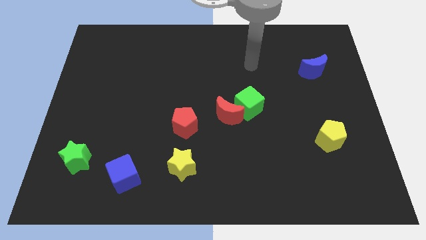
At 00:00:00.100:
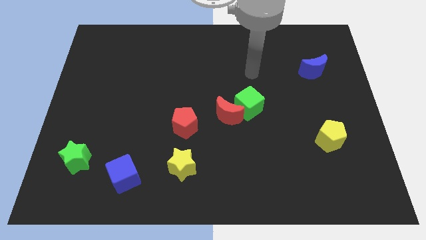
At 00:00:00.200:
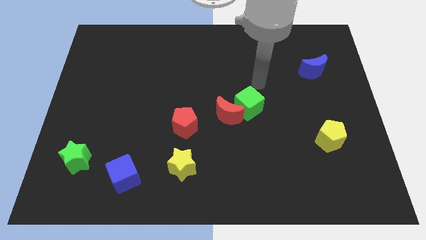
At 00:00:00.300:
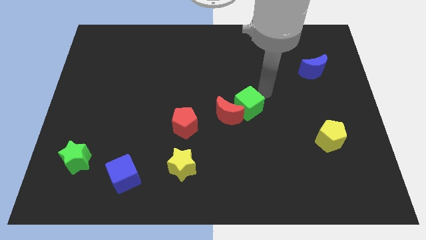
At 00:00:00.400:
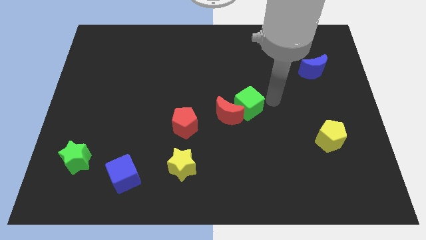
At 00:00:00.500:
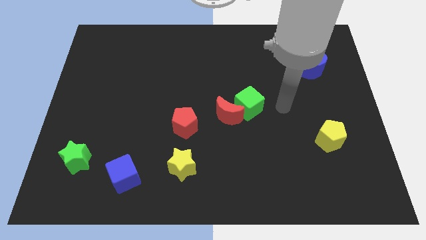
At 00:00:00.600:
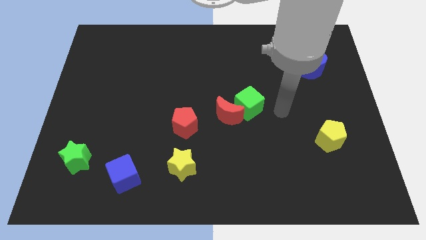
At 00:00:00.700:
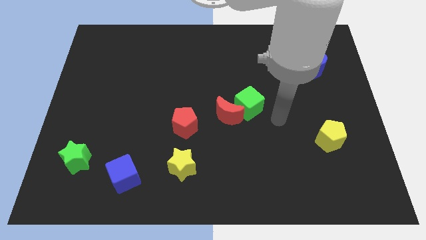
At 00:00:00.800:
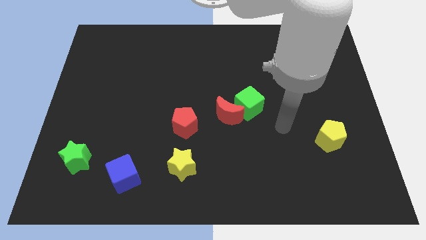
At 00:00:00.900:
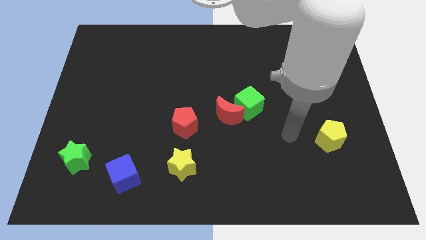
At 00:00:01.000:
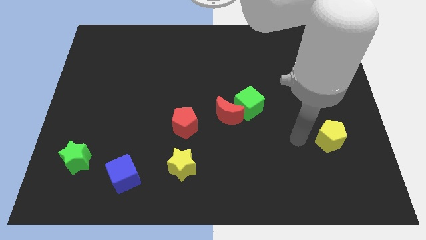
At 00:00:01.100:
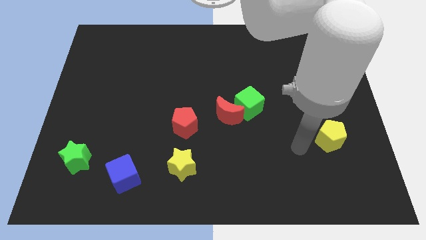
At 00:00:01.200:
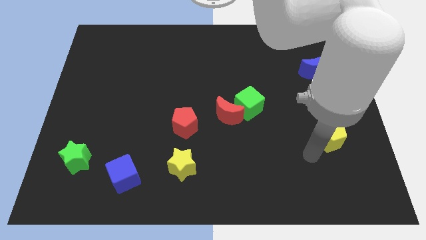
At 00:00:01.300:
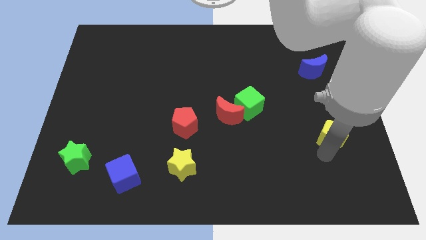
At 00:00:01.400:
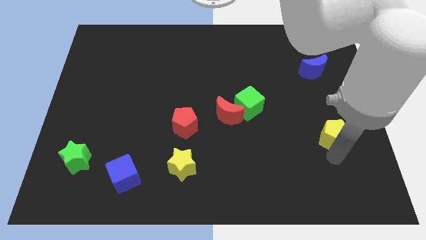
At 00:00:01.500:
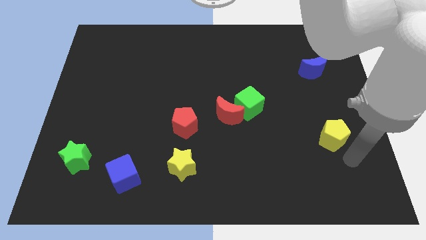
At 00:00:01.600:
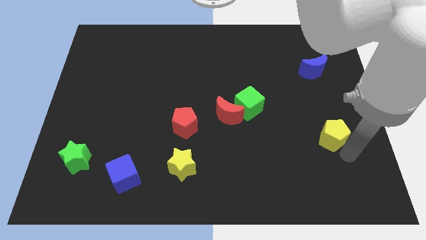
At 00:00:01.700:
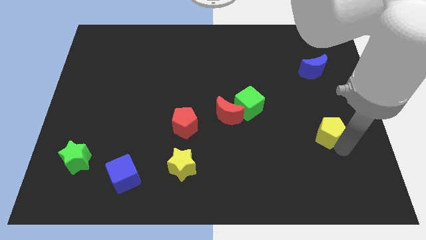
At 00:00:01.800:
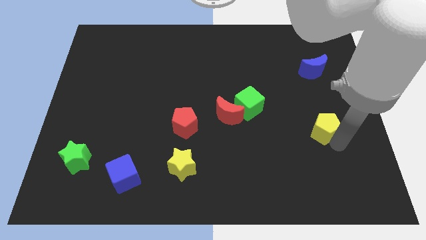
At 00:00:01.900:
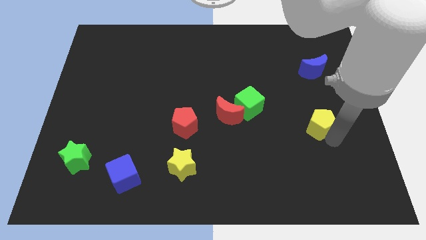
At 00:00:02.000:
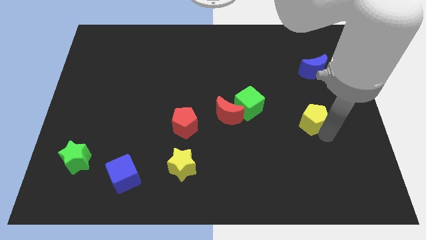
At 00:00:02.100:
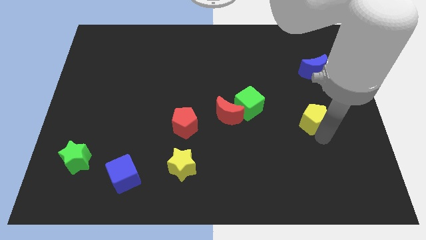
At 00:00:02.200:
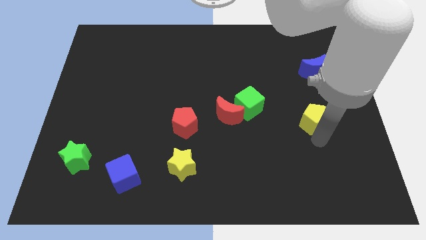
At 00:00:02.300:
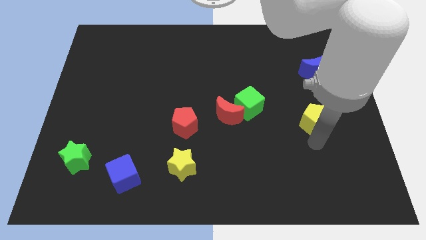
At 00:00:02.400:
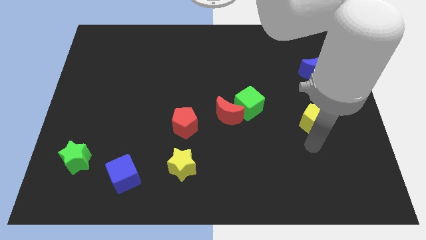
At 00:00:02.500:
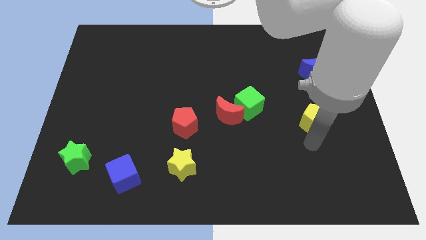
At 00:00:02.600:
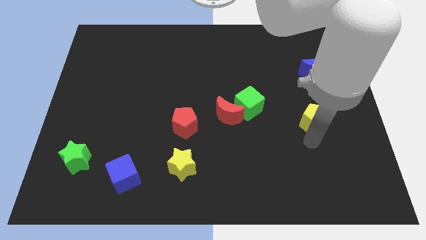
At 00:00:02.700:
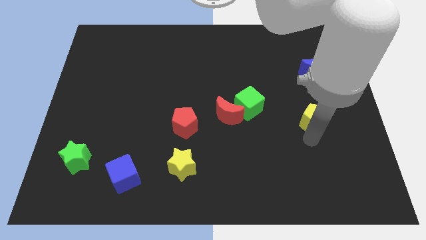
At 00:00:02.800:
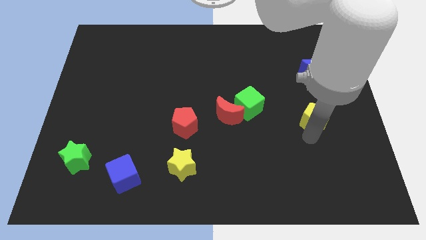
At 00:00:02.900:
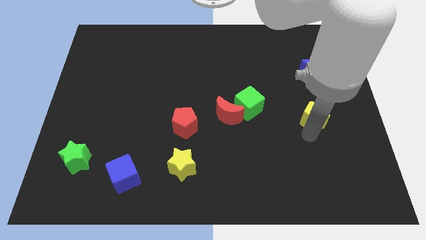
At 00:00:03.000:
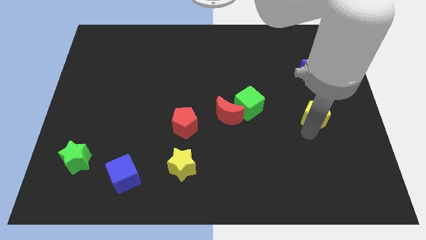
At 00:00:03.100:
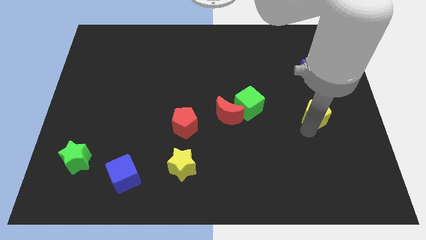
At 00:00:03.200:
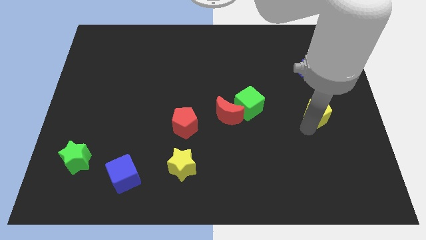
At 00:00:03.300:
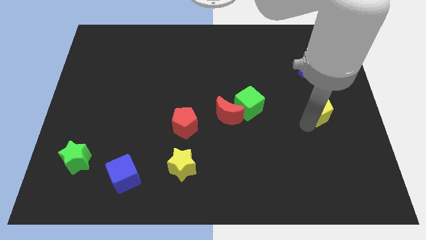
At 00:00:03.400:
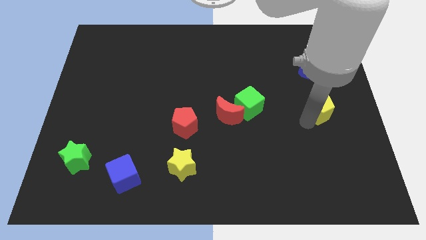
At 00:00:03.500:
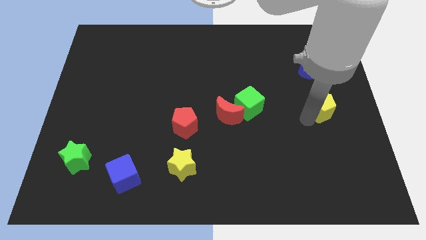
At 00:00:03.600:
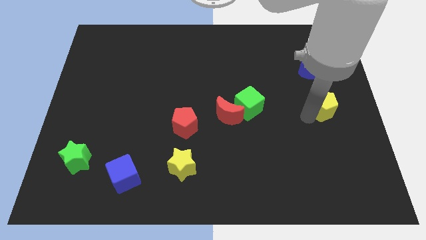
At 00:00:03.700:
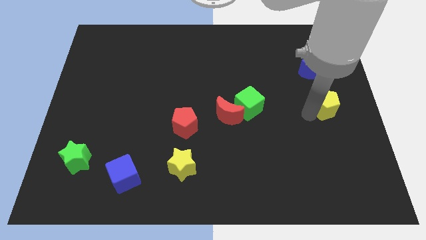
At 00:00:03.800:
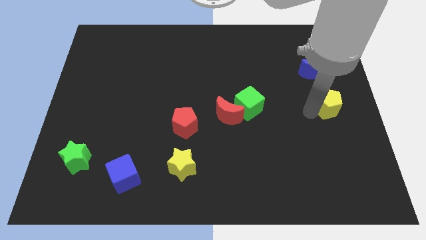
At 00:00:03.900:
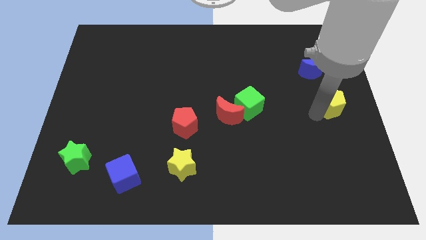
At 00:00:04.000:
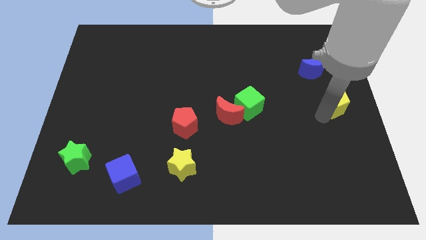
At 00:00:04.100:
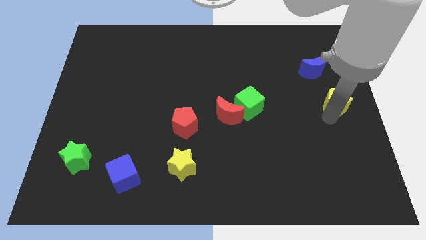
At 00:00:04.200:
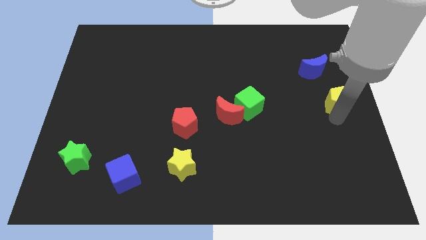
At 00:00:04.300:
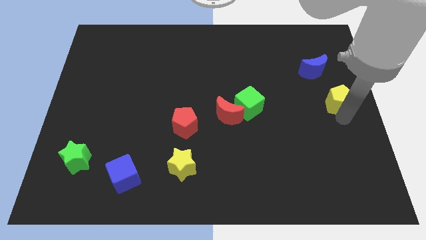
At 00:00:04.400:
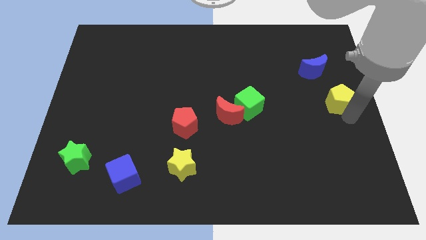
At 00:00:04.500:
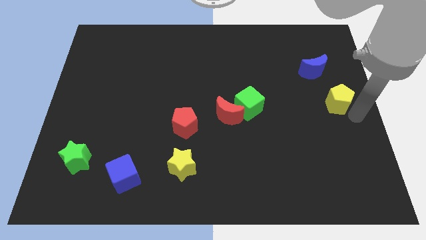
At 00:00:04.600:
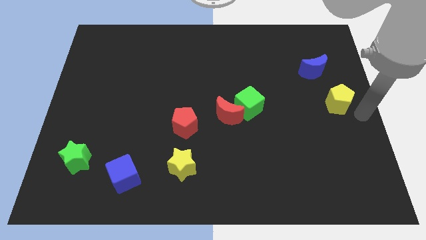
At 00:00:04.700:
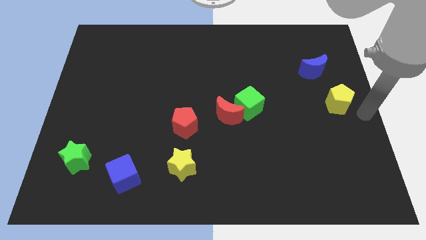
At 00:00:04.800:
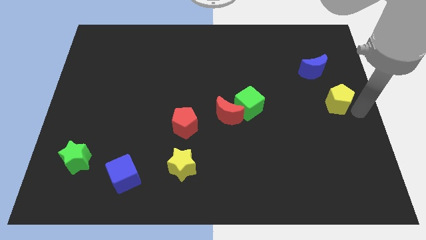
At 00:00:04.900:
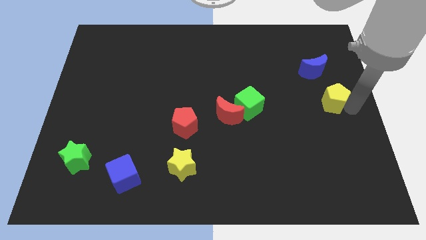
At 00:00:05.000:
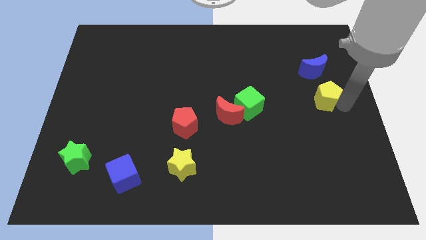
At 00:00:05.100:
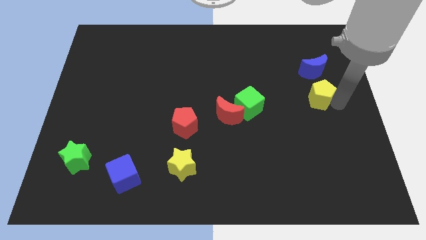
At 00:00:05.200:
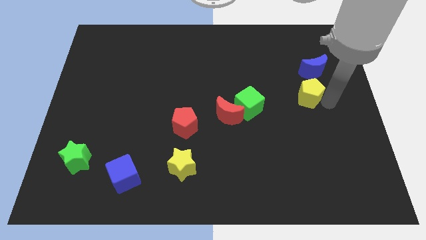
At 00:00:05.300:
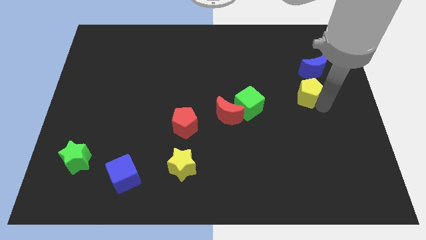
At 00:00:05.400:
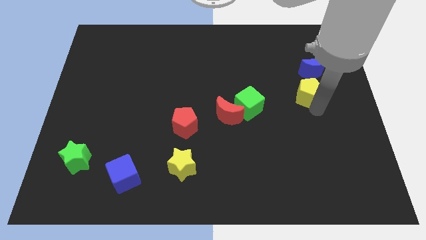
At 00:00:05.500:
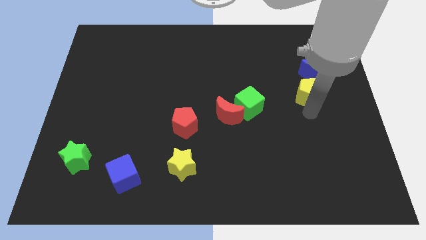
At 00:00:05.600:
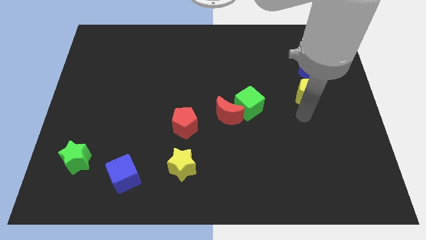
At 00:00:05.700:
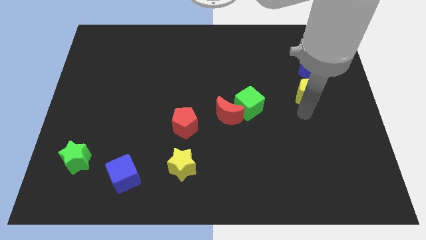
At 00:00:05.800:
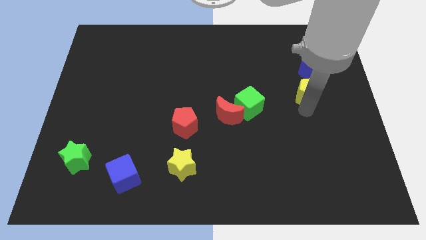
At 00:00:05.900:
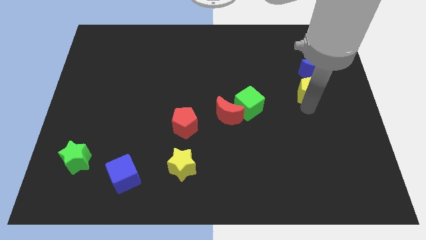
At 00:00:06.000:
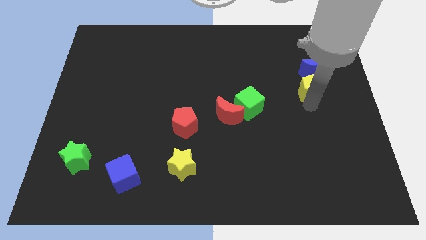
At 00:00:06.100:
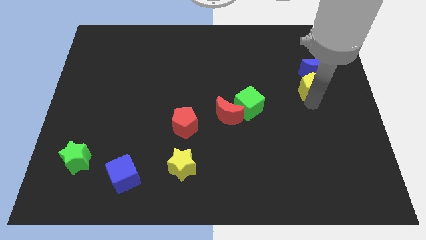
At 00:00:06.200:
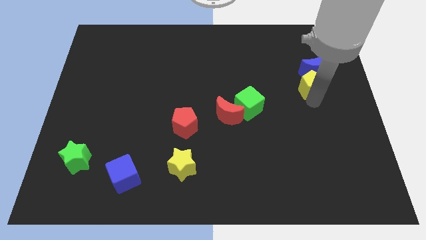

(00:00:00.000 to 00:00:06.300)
put the yellow pentagon close to the blue moon

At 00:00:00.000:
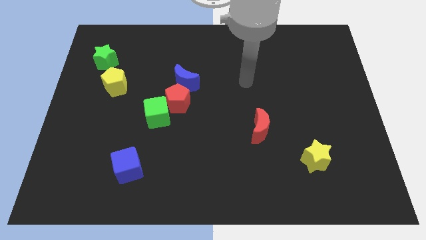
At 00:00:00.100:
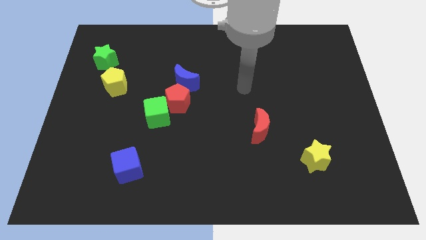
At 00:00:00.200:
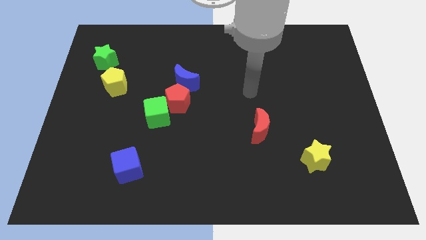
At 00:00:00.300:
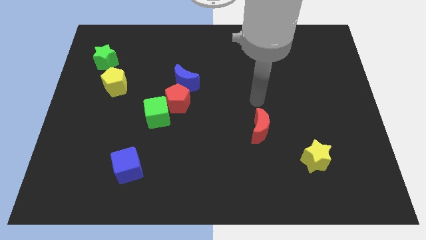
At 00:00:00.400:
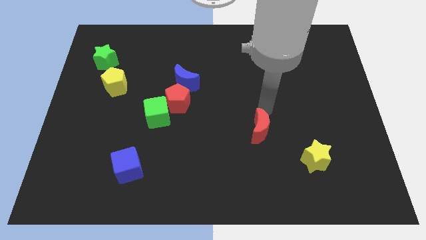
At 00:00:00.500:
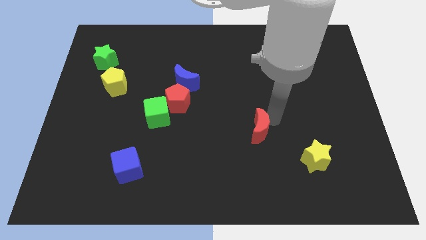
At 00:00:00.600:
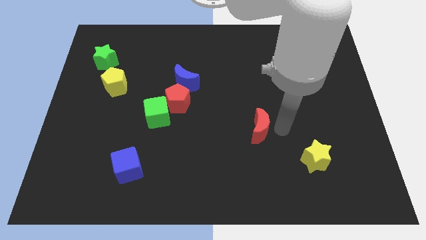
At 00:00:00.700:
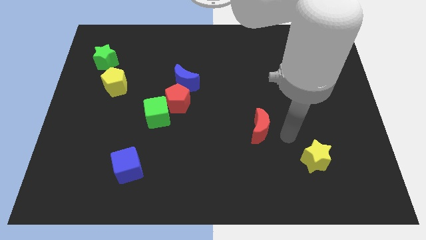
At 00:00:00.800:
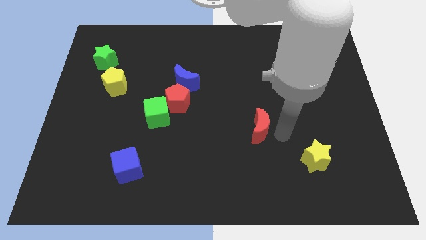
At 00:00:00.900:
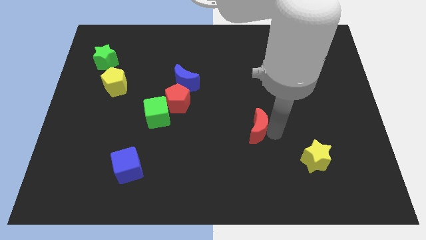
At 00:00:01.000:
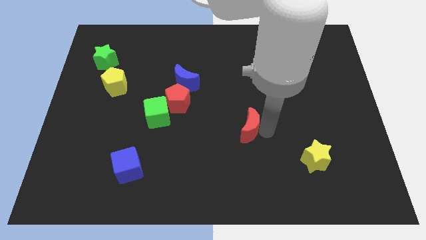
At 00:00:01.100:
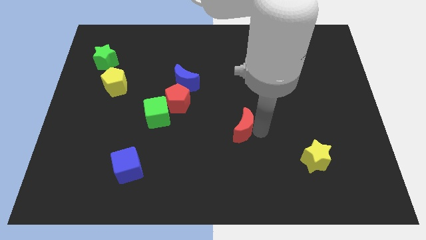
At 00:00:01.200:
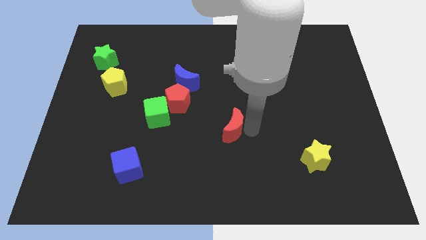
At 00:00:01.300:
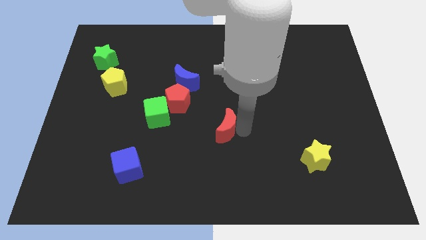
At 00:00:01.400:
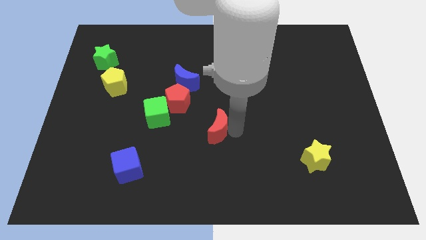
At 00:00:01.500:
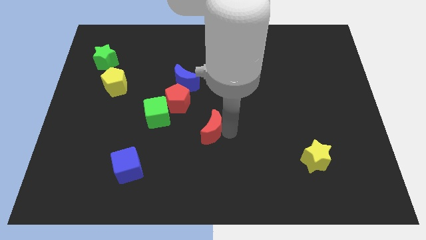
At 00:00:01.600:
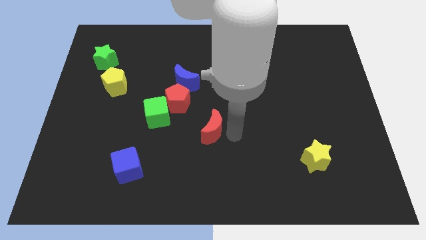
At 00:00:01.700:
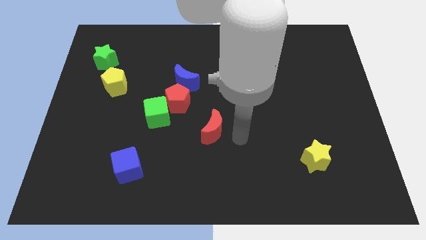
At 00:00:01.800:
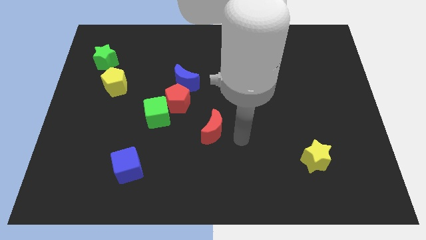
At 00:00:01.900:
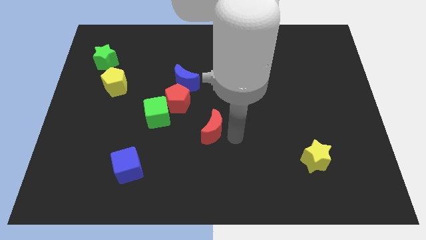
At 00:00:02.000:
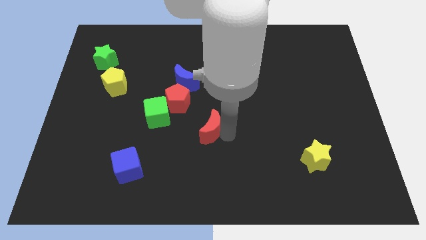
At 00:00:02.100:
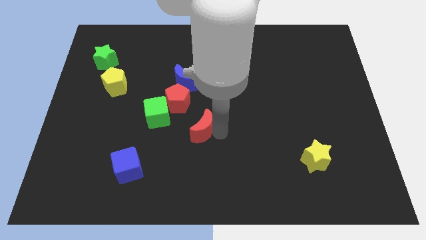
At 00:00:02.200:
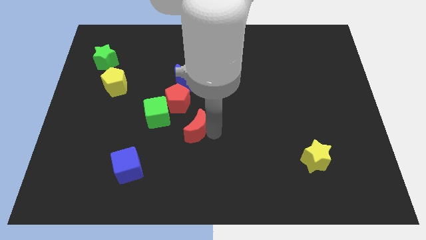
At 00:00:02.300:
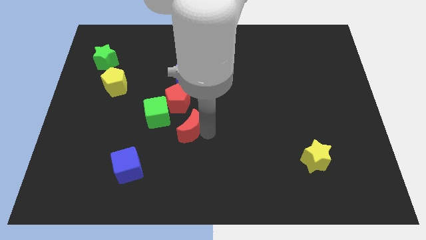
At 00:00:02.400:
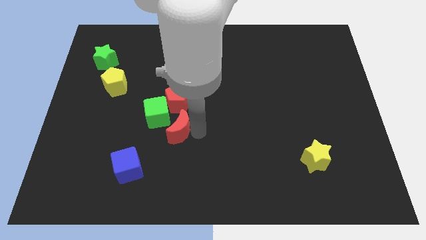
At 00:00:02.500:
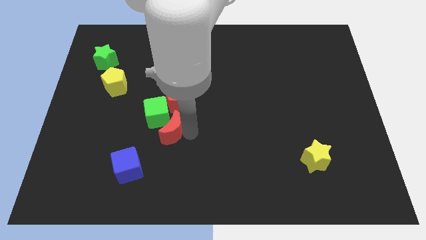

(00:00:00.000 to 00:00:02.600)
put the red moon next to the green cube
